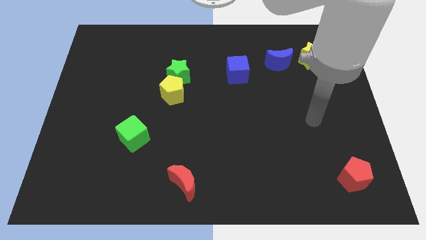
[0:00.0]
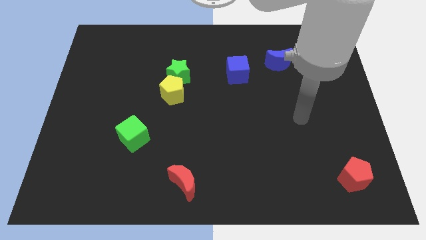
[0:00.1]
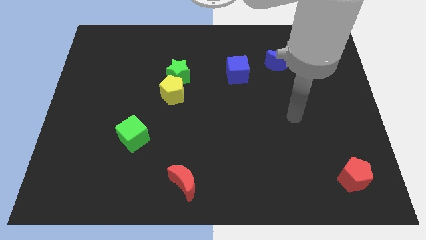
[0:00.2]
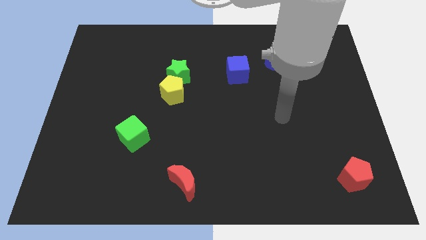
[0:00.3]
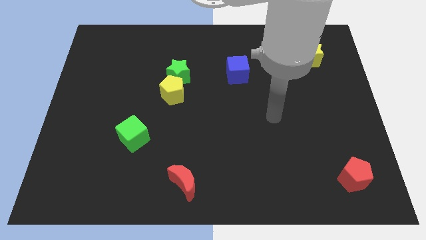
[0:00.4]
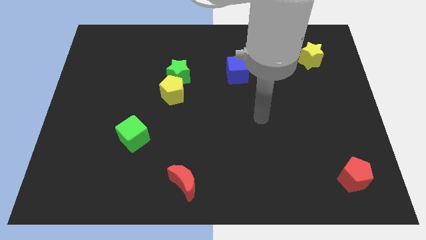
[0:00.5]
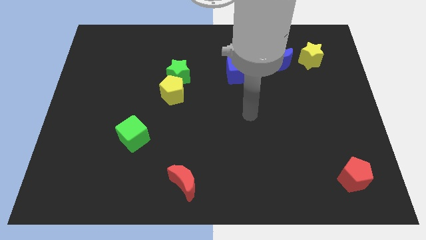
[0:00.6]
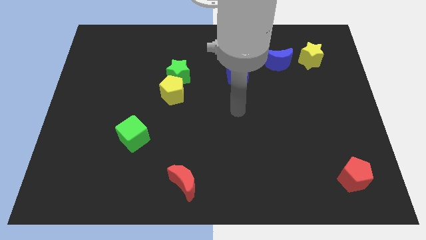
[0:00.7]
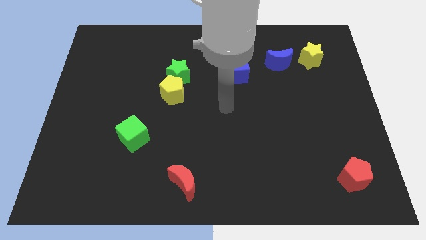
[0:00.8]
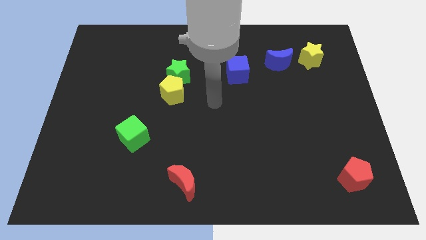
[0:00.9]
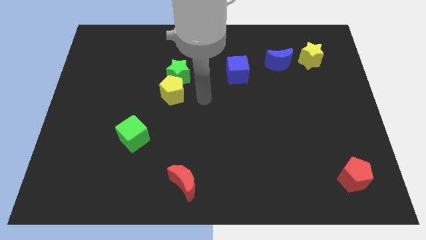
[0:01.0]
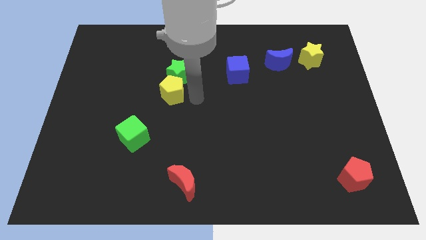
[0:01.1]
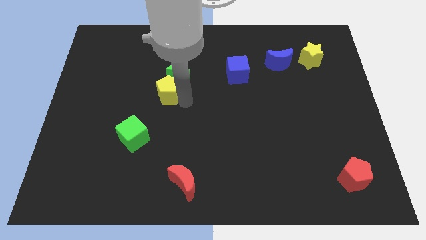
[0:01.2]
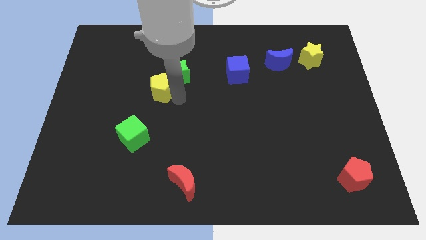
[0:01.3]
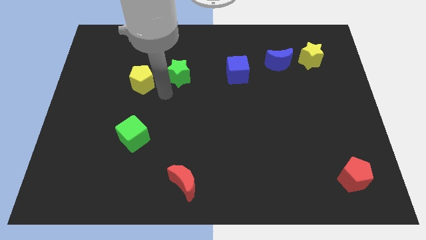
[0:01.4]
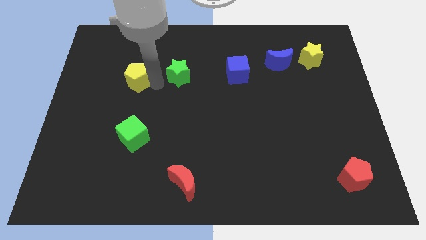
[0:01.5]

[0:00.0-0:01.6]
pull the green star apart from the yellow pentagon

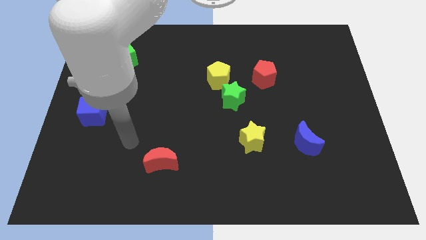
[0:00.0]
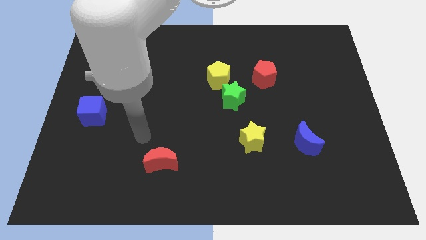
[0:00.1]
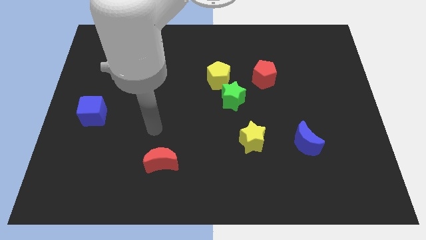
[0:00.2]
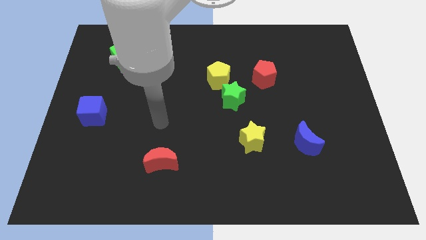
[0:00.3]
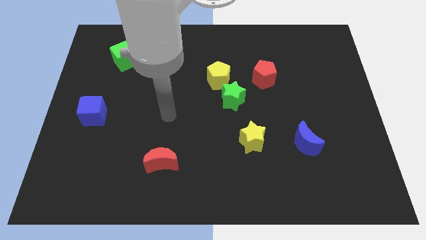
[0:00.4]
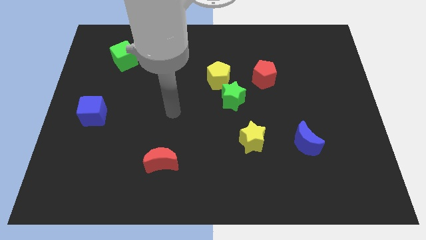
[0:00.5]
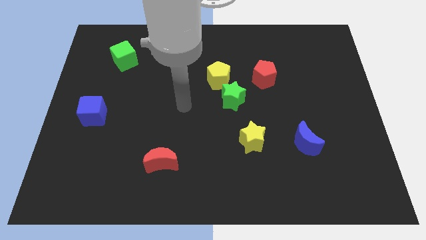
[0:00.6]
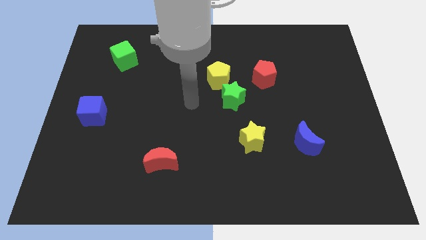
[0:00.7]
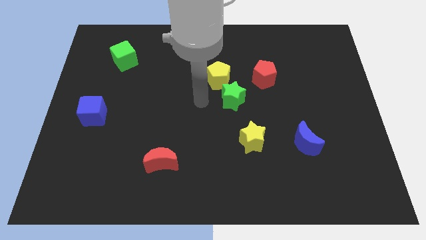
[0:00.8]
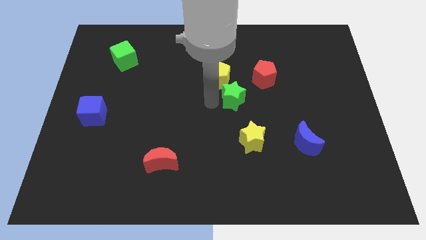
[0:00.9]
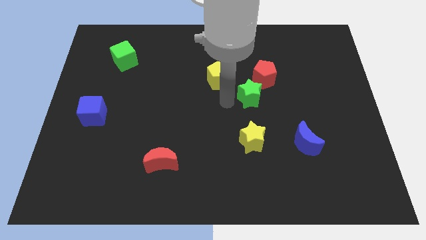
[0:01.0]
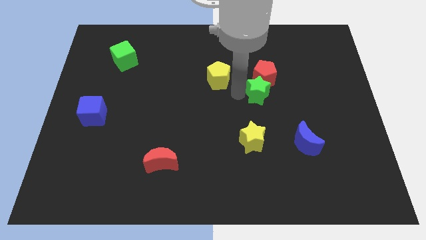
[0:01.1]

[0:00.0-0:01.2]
separate the yellow pentagon from the green star

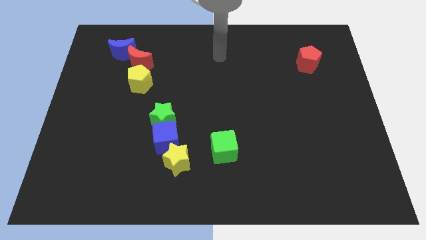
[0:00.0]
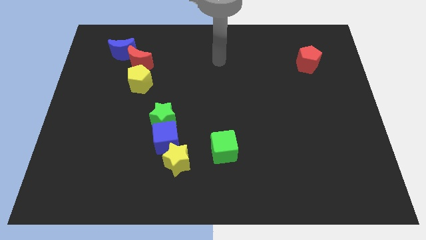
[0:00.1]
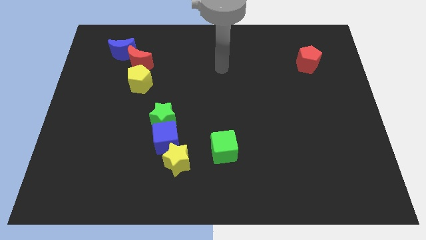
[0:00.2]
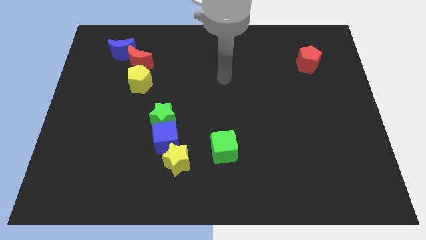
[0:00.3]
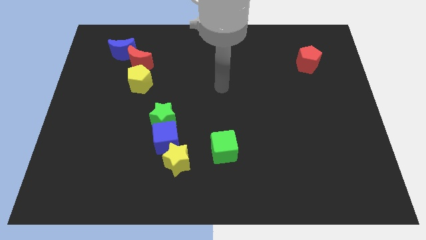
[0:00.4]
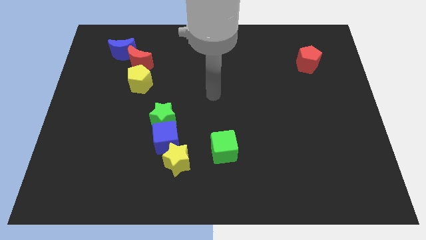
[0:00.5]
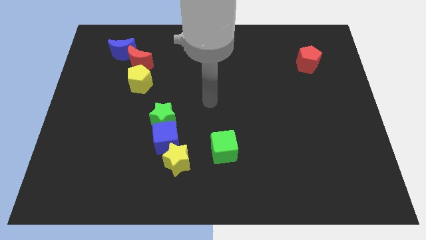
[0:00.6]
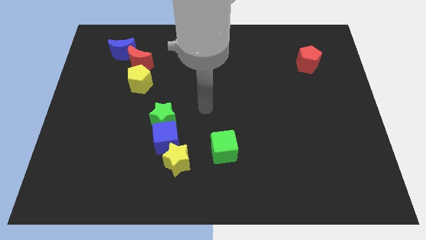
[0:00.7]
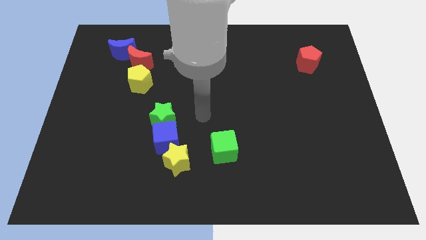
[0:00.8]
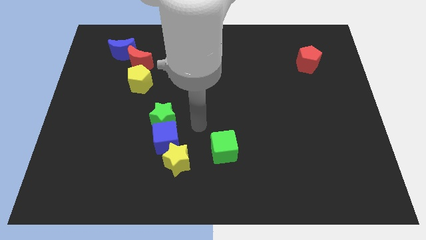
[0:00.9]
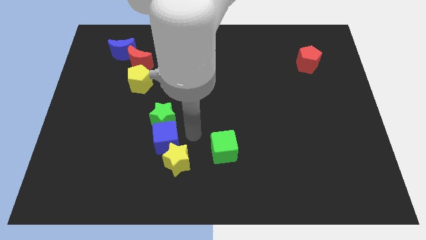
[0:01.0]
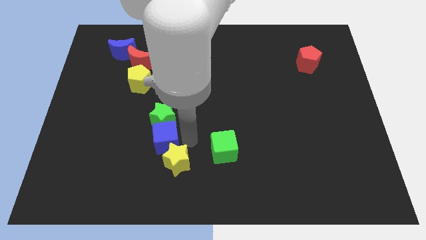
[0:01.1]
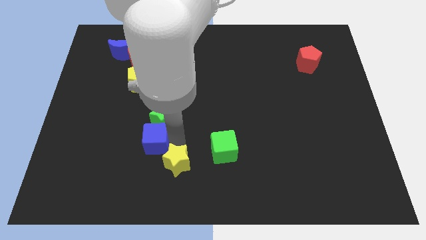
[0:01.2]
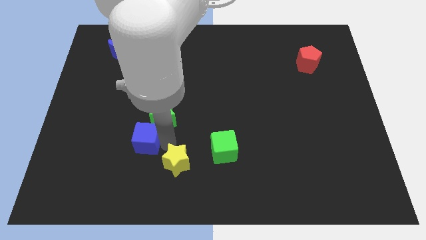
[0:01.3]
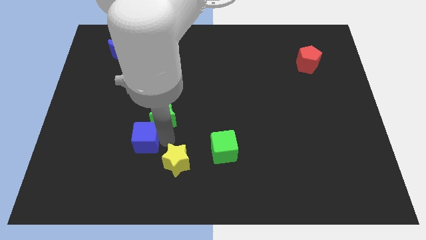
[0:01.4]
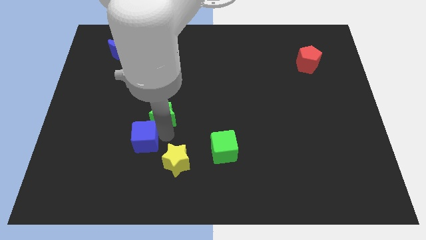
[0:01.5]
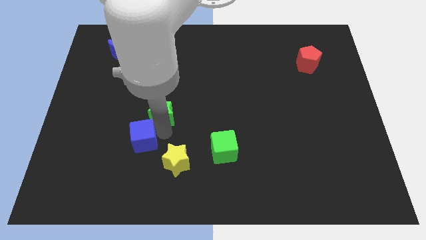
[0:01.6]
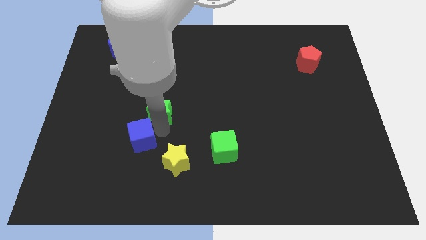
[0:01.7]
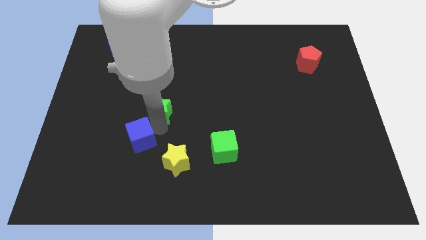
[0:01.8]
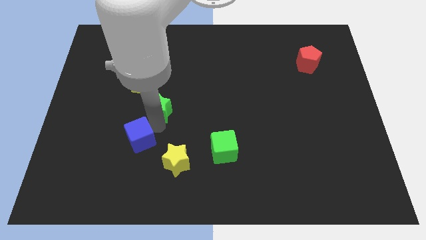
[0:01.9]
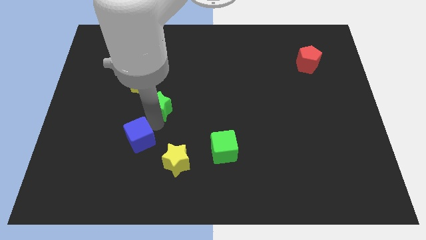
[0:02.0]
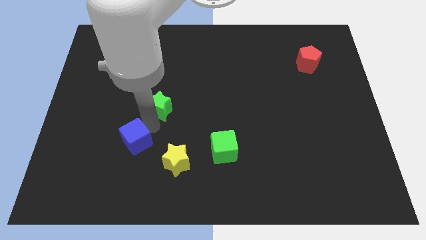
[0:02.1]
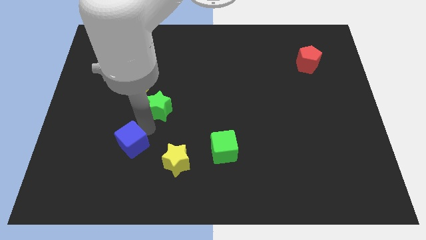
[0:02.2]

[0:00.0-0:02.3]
move the green star away from the blue cube

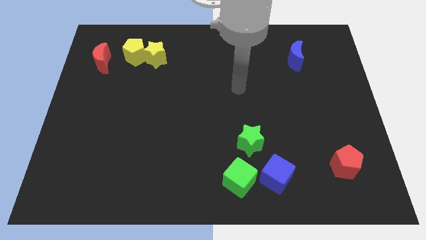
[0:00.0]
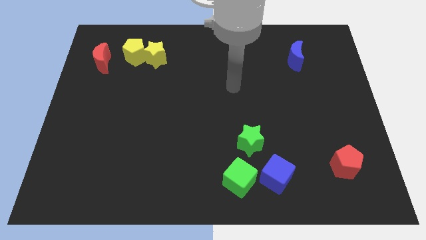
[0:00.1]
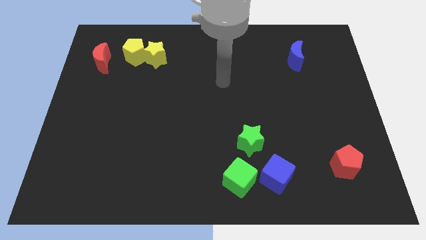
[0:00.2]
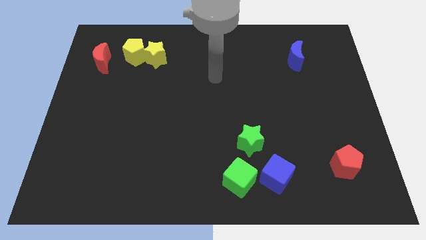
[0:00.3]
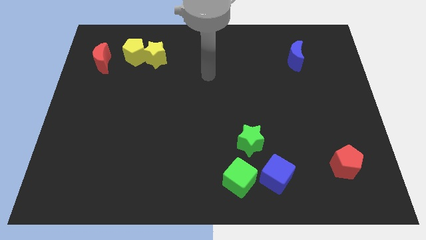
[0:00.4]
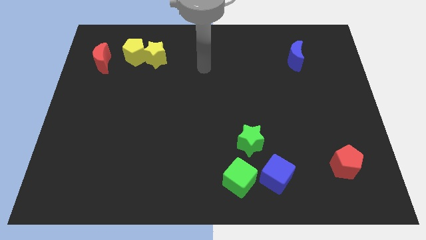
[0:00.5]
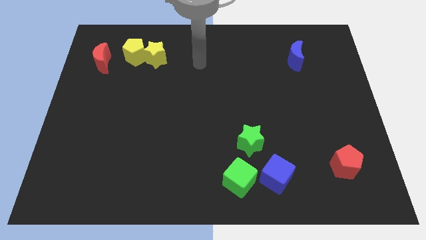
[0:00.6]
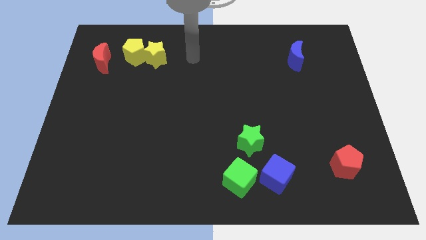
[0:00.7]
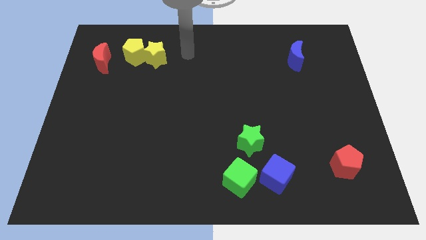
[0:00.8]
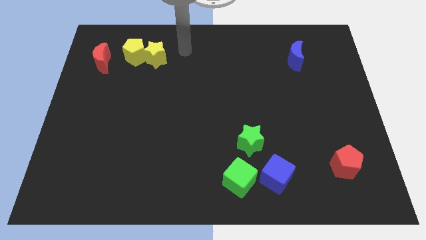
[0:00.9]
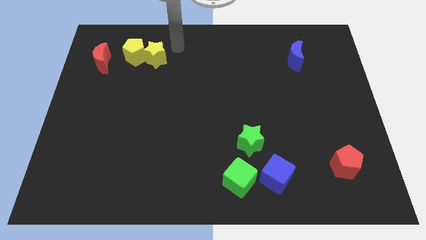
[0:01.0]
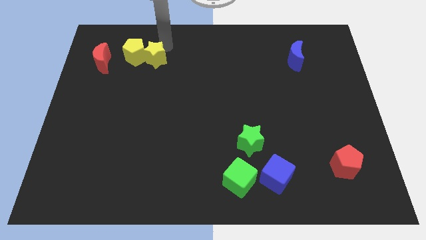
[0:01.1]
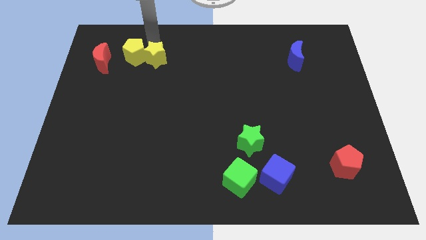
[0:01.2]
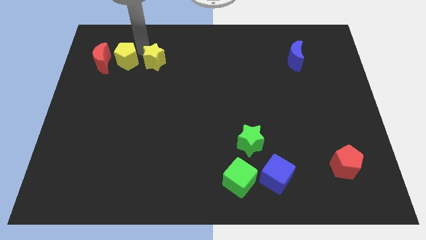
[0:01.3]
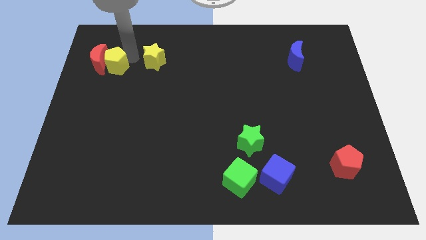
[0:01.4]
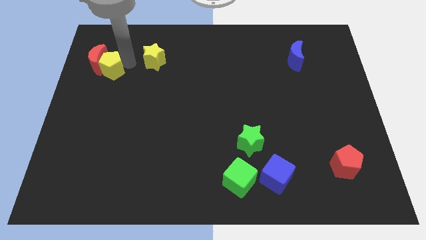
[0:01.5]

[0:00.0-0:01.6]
move the yellow star away from the yellow pentagon

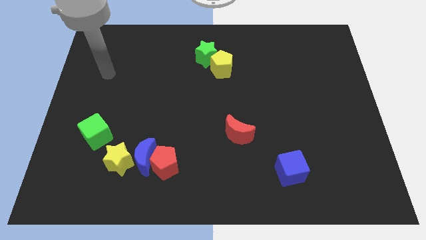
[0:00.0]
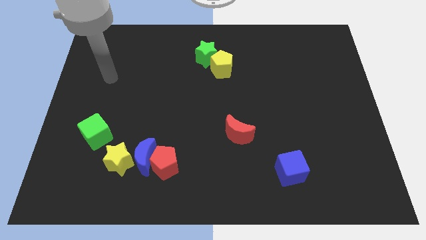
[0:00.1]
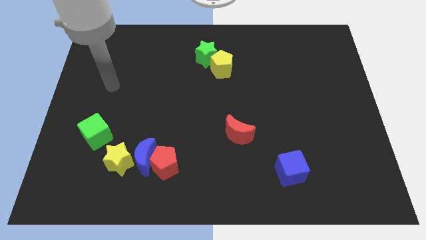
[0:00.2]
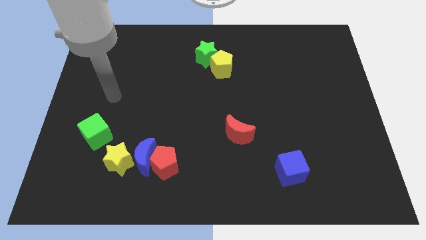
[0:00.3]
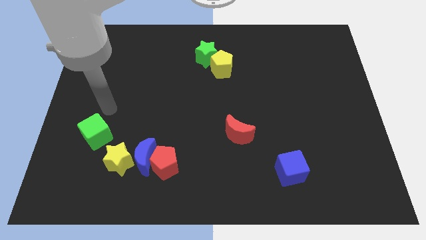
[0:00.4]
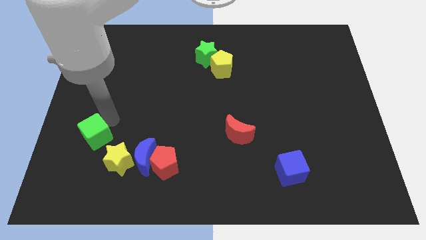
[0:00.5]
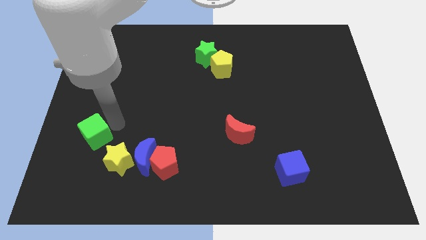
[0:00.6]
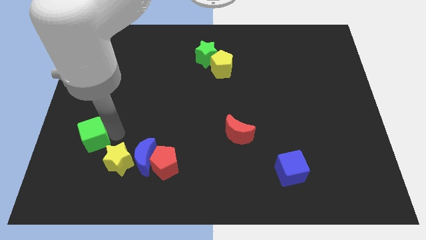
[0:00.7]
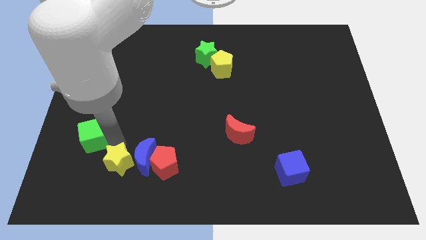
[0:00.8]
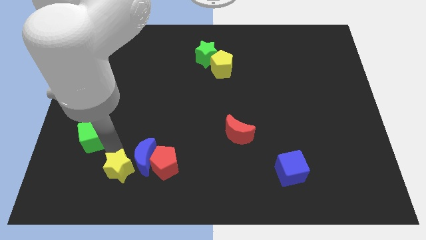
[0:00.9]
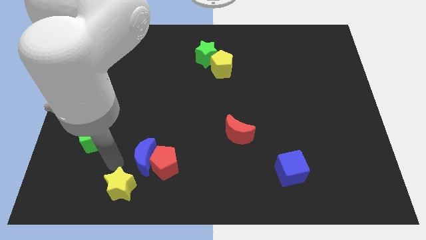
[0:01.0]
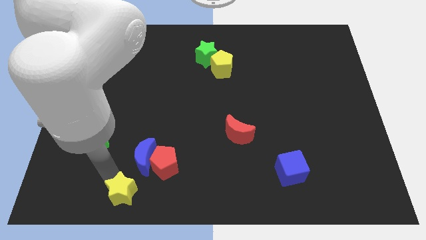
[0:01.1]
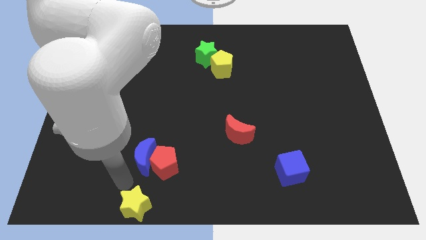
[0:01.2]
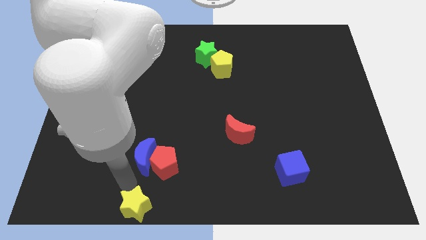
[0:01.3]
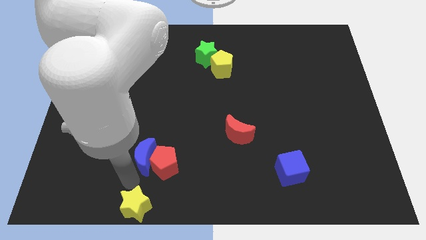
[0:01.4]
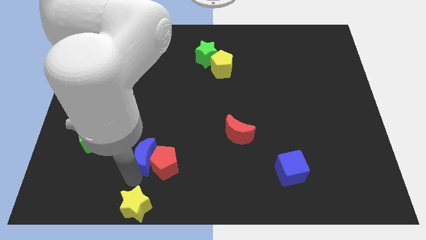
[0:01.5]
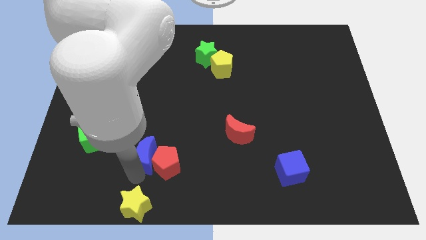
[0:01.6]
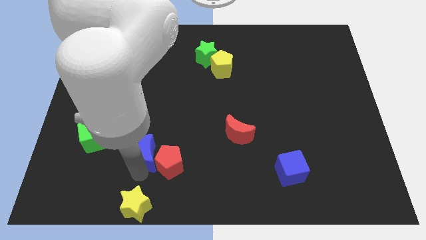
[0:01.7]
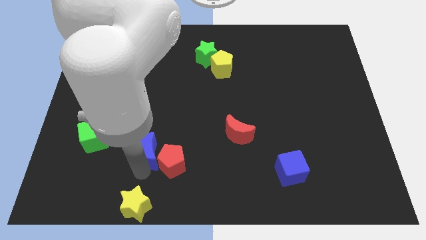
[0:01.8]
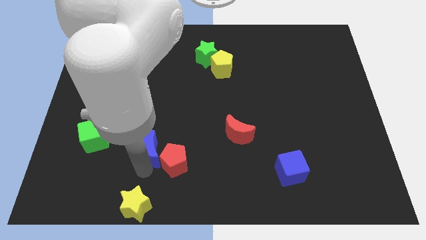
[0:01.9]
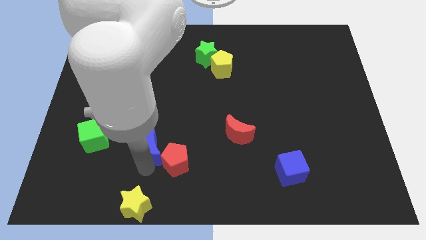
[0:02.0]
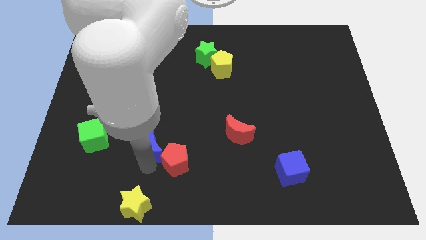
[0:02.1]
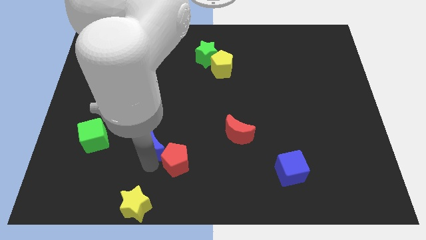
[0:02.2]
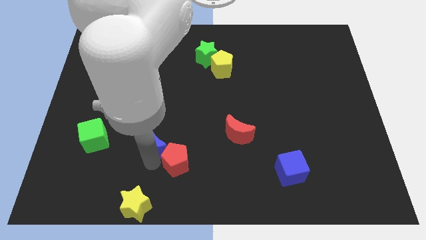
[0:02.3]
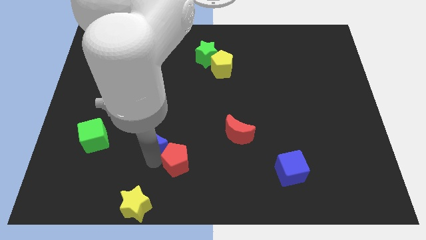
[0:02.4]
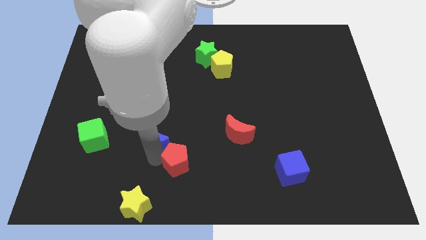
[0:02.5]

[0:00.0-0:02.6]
separate the blue moon from the red pentagon and yellow star
